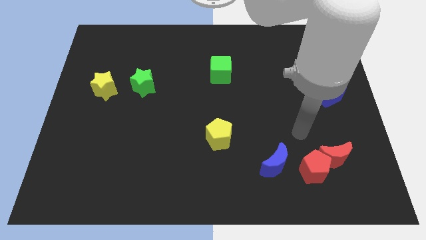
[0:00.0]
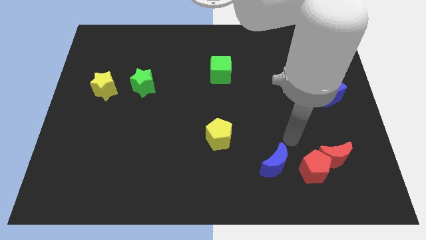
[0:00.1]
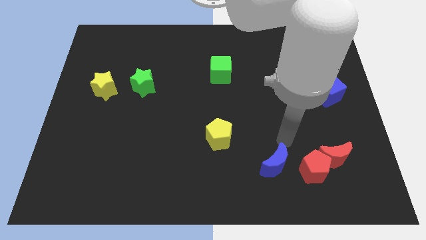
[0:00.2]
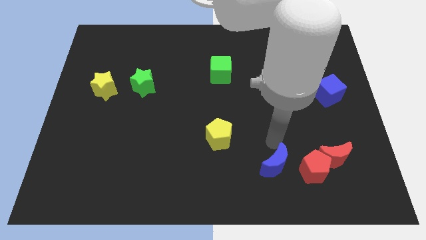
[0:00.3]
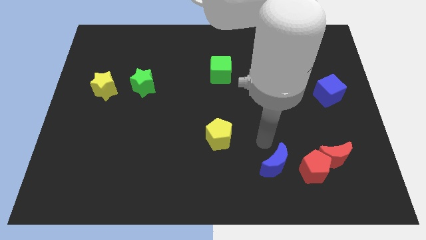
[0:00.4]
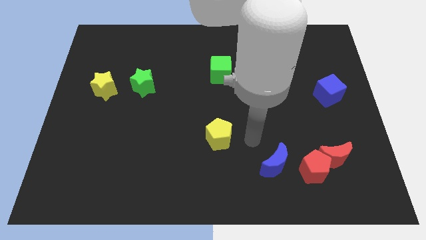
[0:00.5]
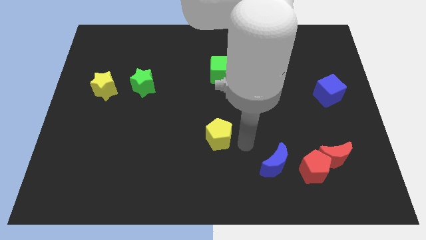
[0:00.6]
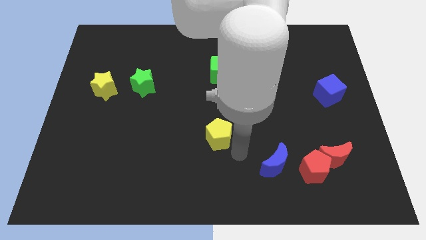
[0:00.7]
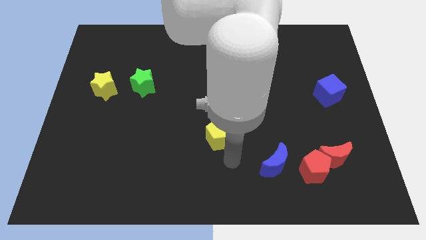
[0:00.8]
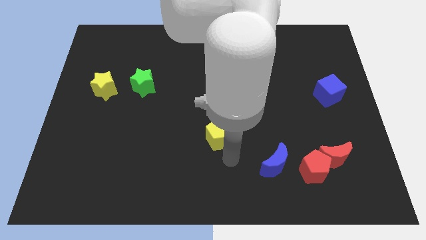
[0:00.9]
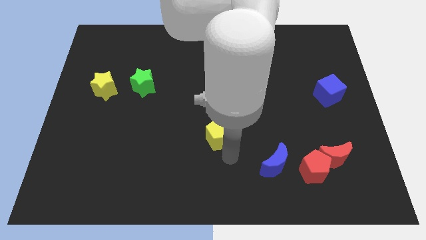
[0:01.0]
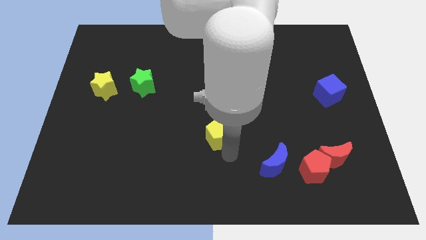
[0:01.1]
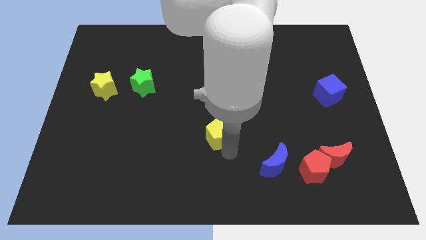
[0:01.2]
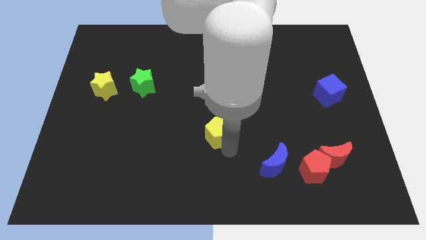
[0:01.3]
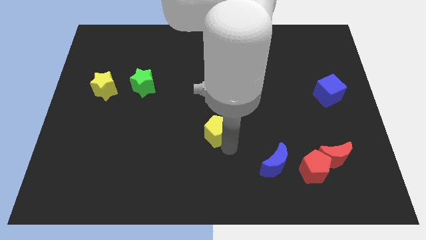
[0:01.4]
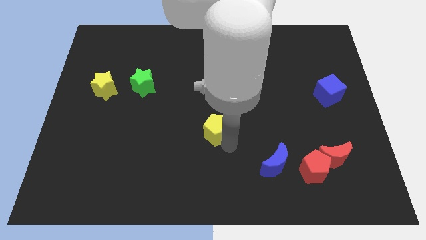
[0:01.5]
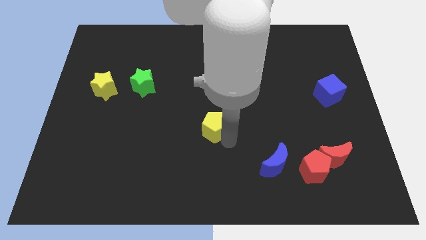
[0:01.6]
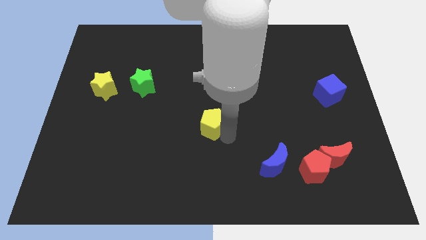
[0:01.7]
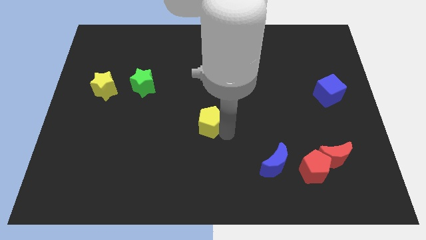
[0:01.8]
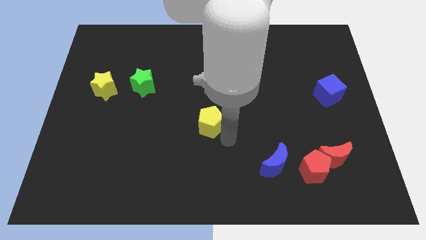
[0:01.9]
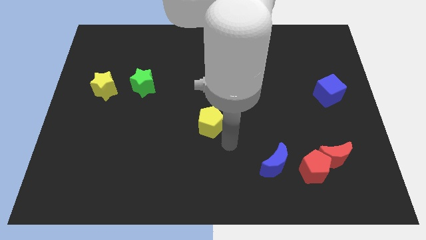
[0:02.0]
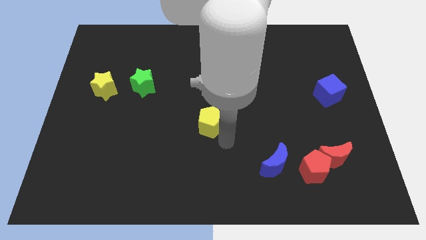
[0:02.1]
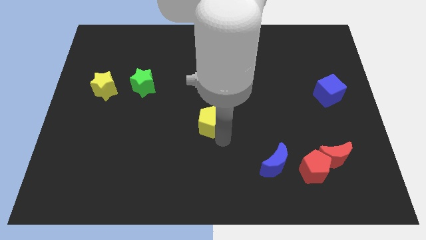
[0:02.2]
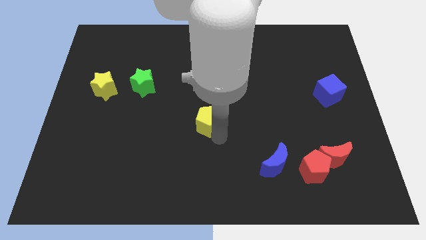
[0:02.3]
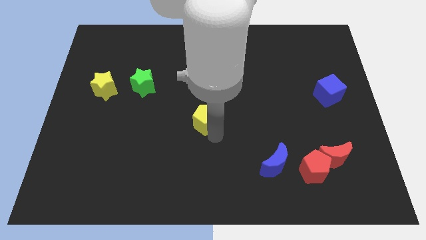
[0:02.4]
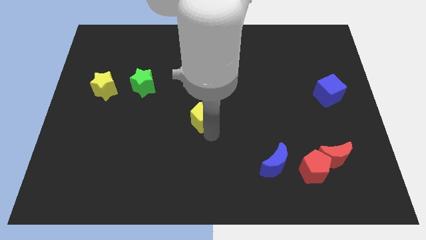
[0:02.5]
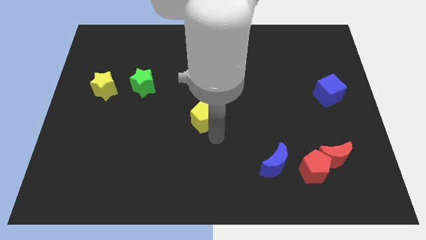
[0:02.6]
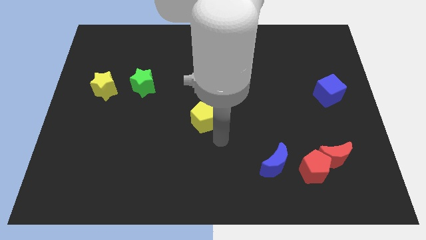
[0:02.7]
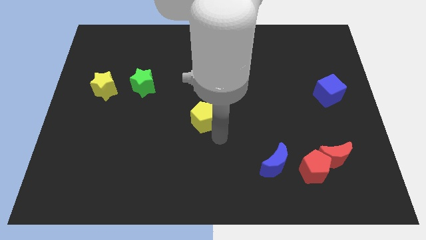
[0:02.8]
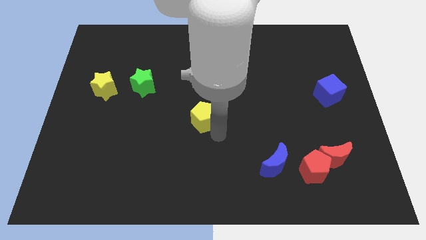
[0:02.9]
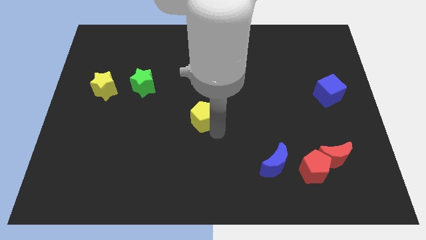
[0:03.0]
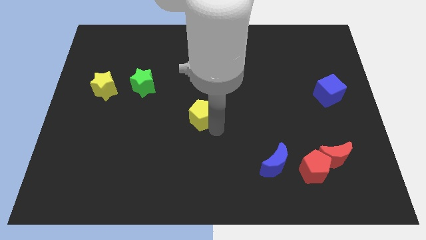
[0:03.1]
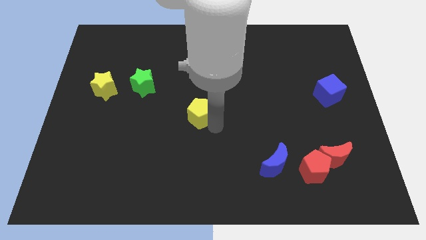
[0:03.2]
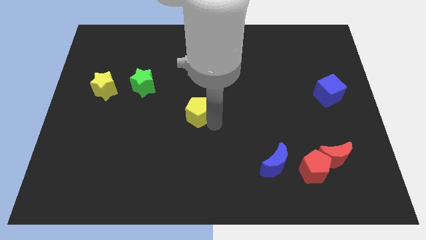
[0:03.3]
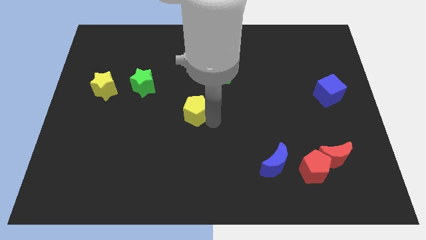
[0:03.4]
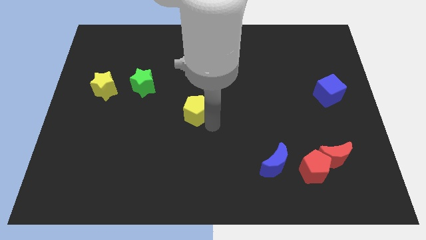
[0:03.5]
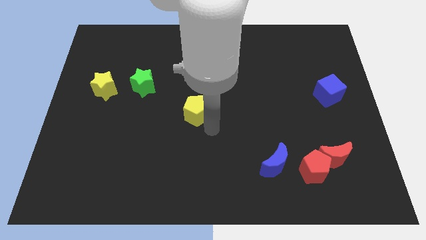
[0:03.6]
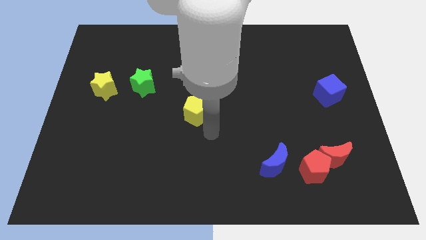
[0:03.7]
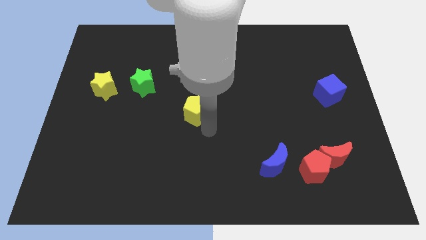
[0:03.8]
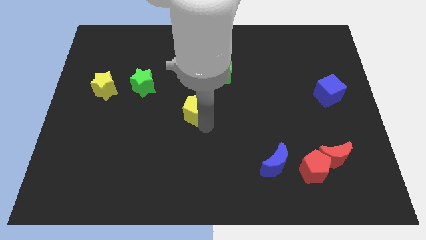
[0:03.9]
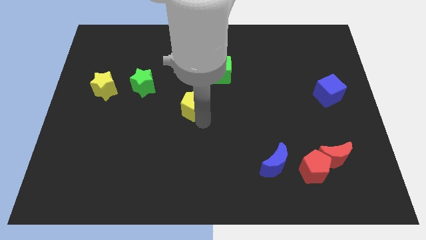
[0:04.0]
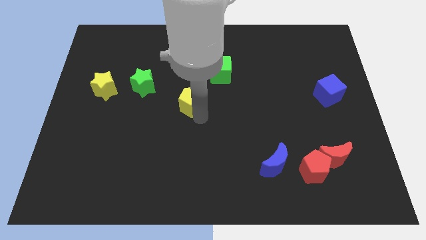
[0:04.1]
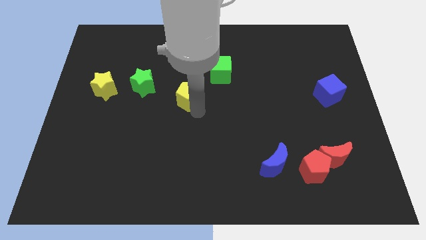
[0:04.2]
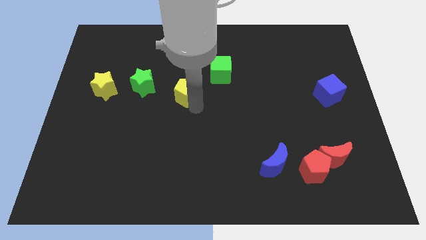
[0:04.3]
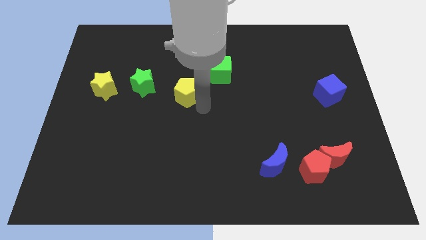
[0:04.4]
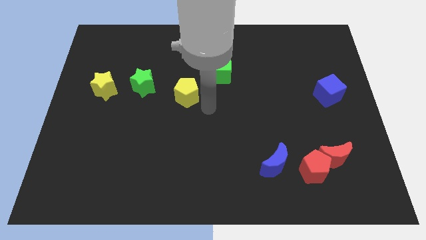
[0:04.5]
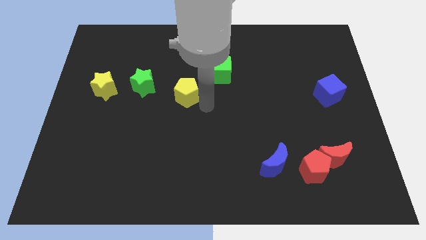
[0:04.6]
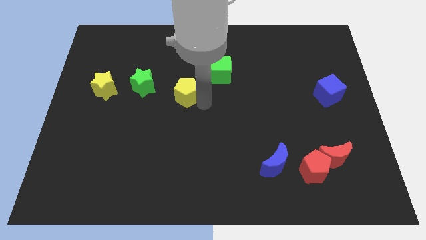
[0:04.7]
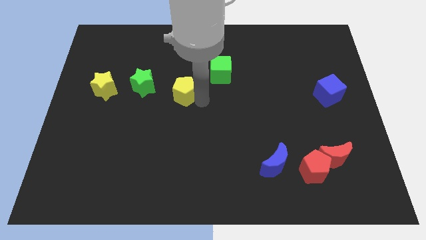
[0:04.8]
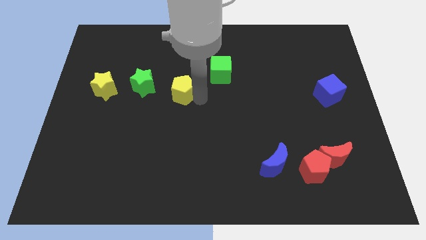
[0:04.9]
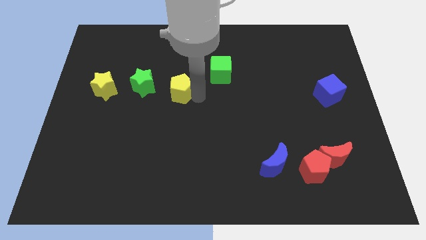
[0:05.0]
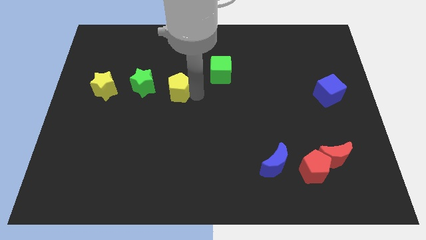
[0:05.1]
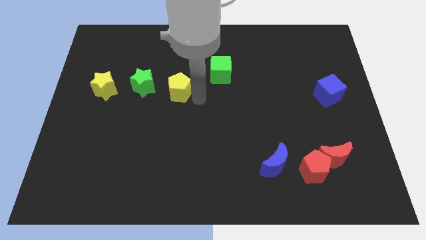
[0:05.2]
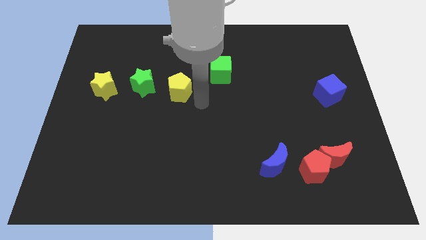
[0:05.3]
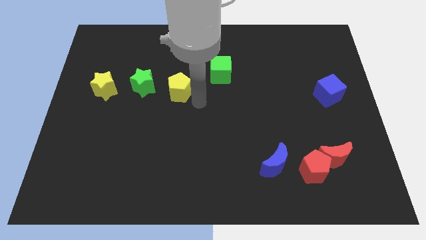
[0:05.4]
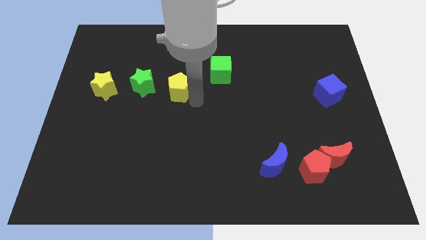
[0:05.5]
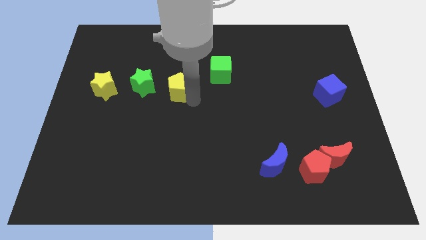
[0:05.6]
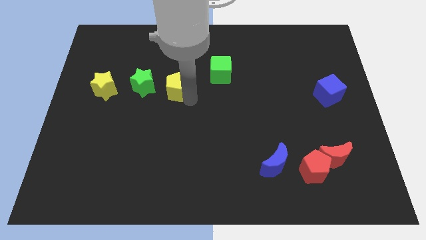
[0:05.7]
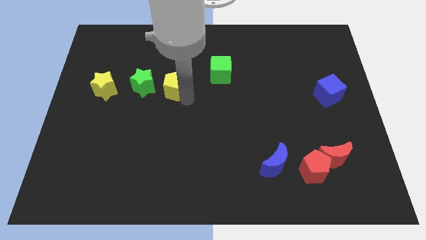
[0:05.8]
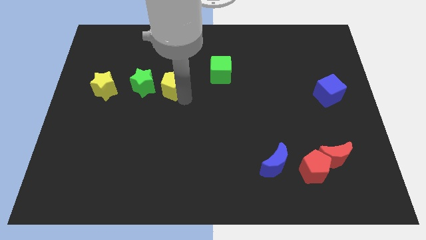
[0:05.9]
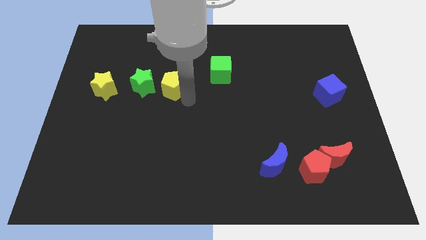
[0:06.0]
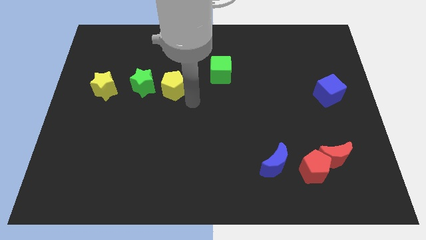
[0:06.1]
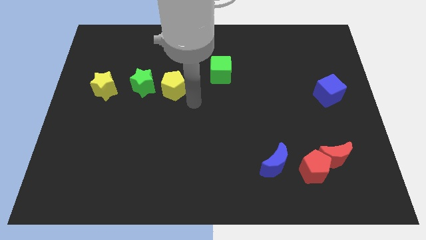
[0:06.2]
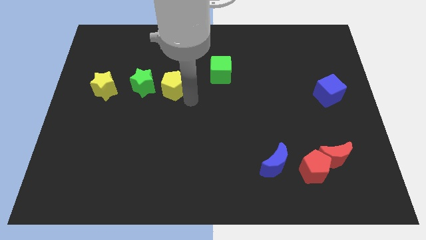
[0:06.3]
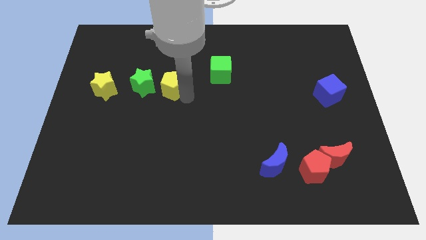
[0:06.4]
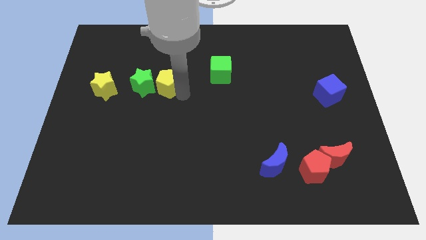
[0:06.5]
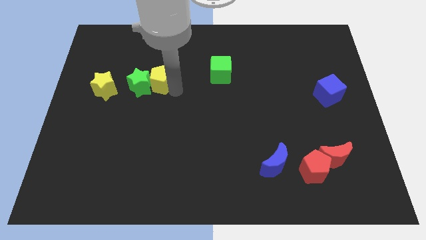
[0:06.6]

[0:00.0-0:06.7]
move the yellow pentagon diagonally up and to the left

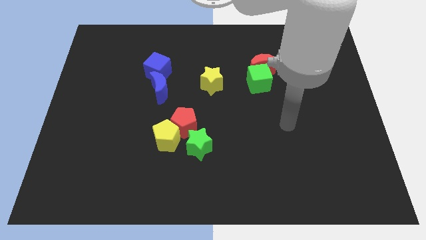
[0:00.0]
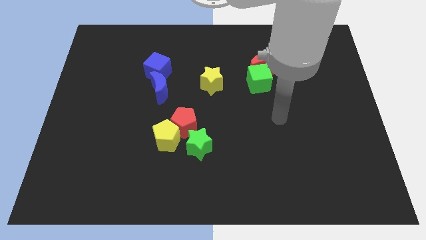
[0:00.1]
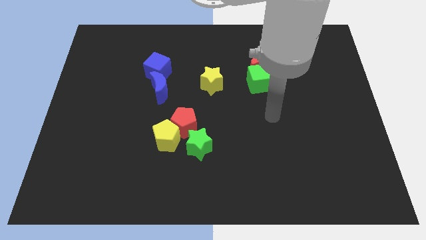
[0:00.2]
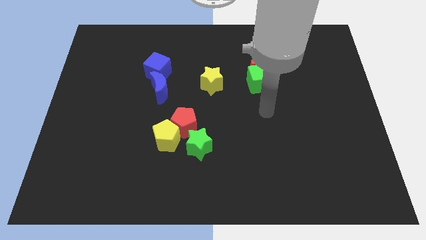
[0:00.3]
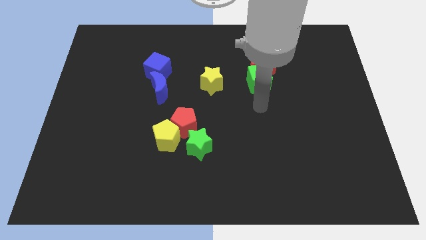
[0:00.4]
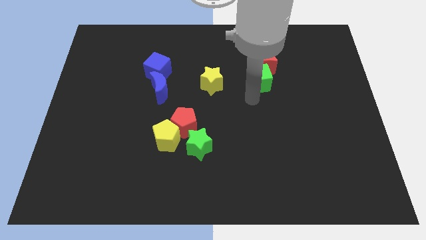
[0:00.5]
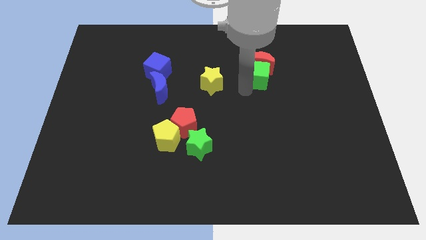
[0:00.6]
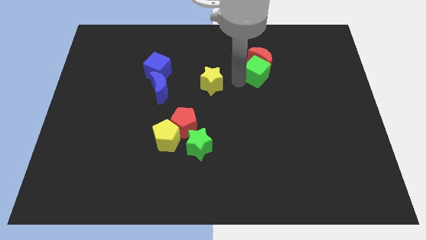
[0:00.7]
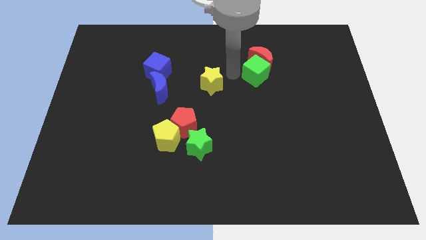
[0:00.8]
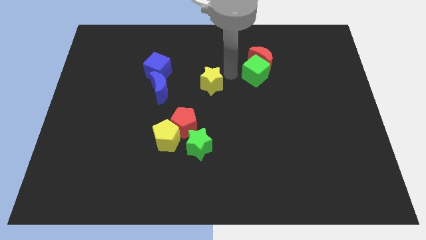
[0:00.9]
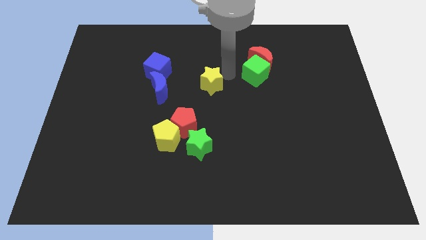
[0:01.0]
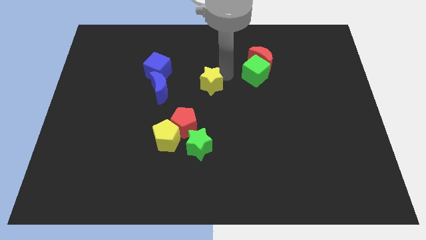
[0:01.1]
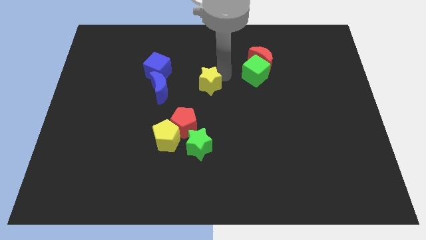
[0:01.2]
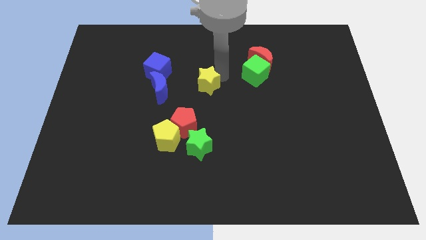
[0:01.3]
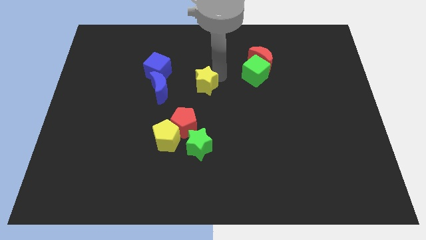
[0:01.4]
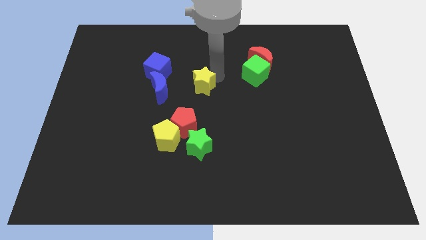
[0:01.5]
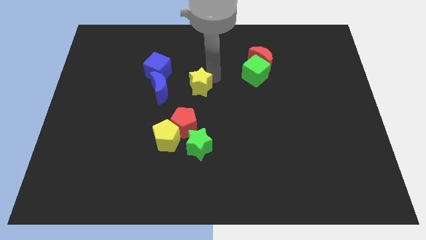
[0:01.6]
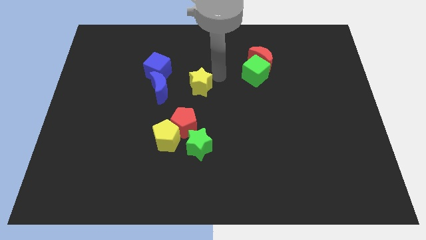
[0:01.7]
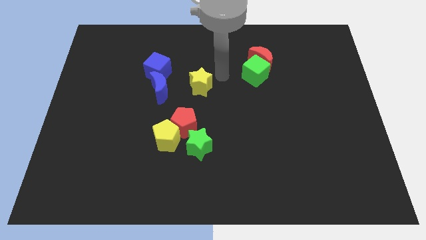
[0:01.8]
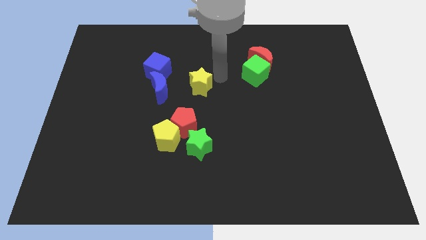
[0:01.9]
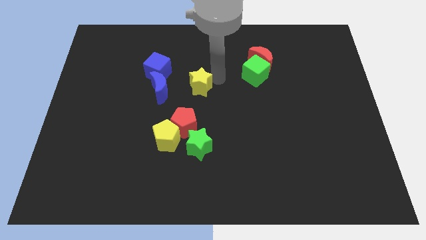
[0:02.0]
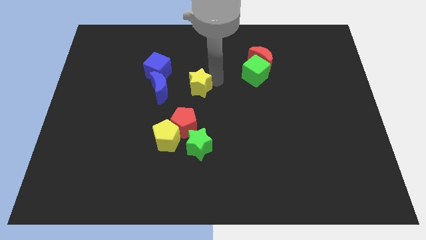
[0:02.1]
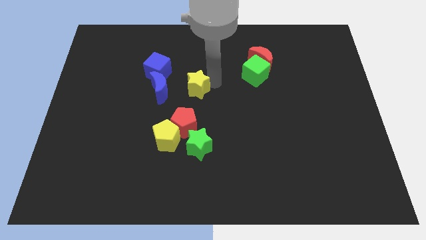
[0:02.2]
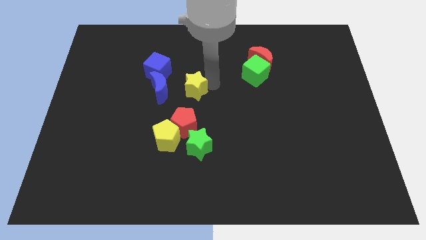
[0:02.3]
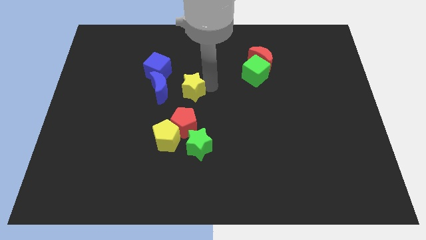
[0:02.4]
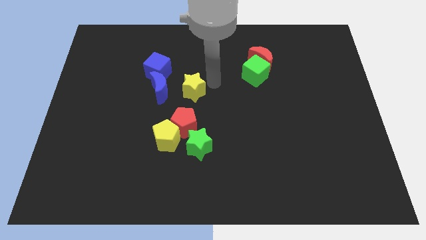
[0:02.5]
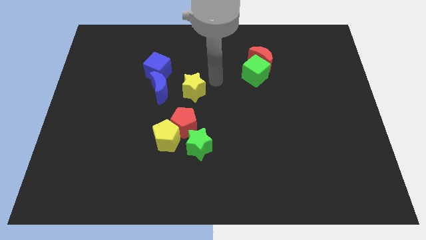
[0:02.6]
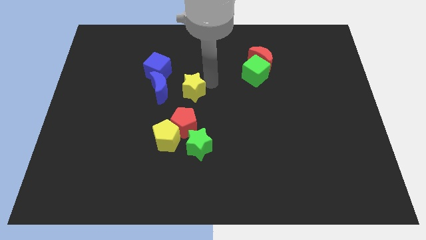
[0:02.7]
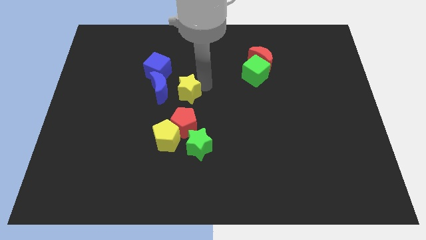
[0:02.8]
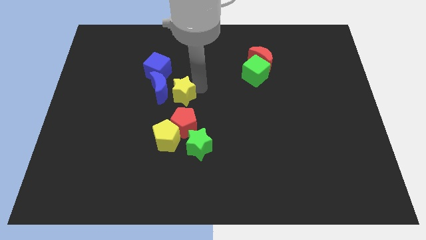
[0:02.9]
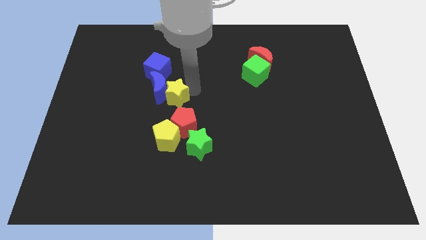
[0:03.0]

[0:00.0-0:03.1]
slide the yellow star left slightly
